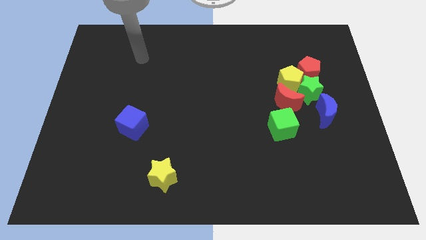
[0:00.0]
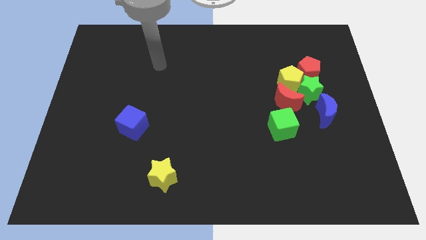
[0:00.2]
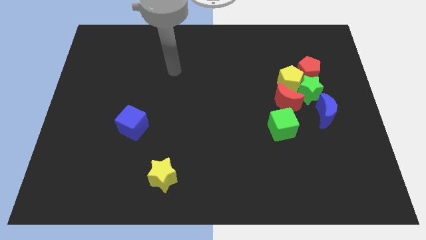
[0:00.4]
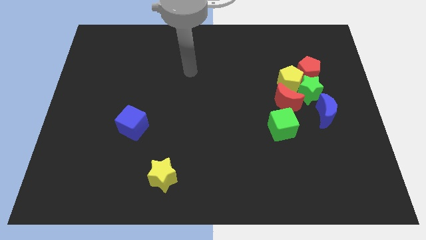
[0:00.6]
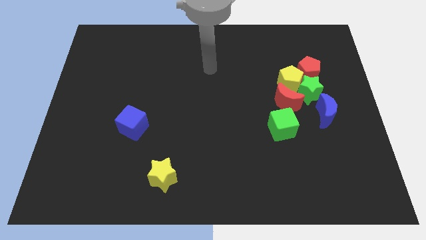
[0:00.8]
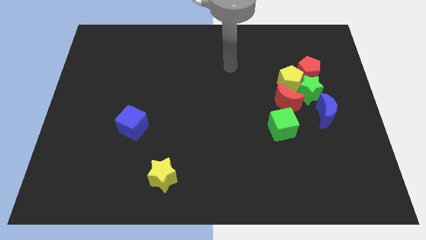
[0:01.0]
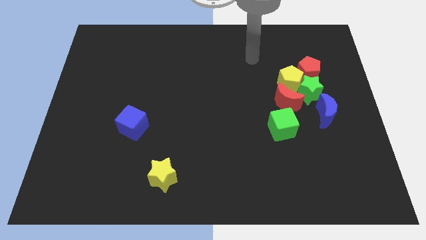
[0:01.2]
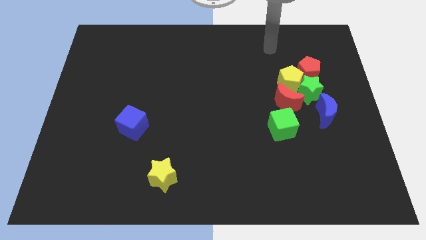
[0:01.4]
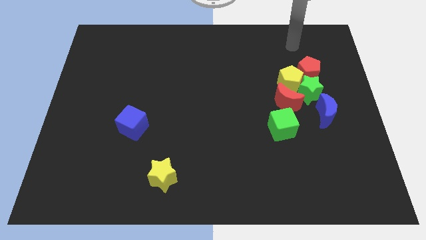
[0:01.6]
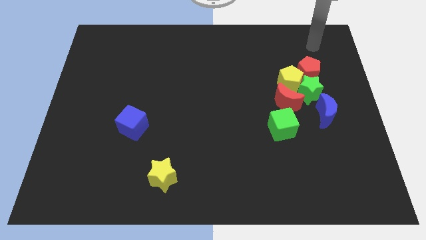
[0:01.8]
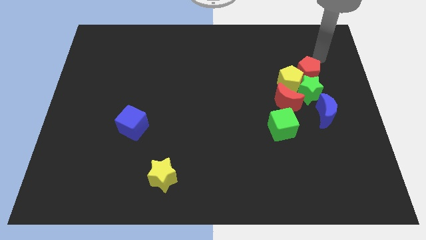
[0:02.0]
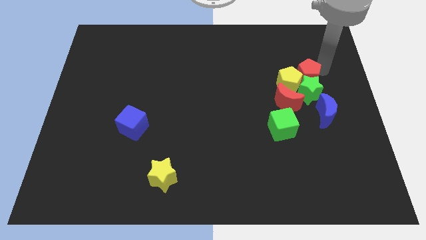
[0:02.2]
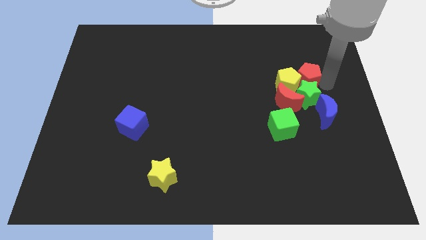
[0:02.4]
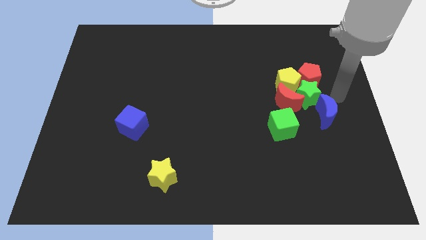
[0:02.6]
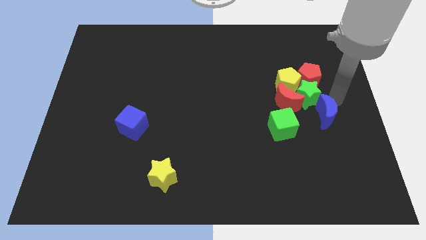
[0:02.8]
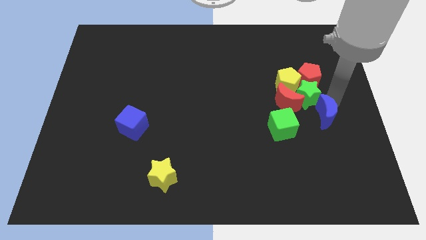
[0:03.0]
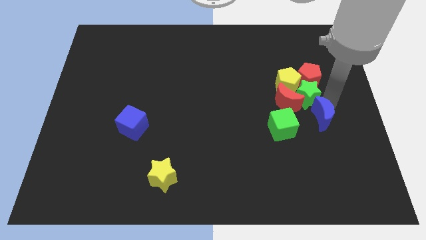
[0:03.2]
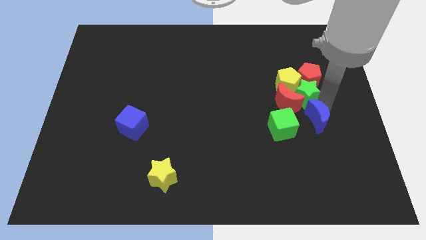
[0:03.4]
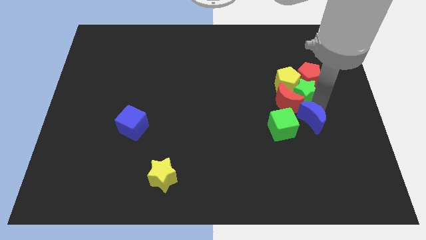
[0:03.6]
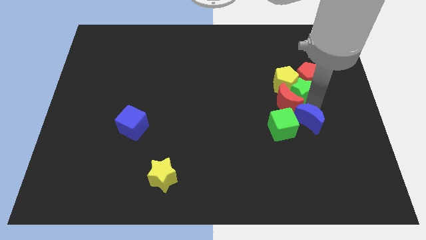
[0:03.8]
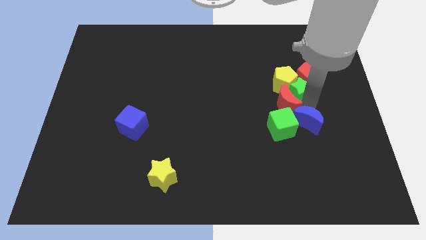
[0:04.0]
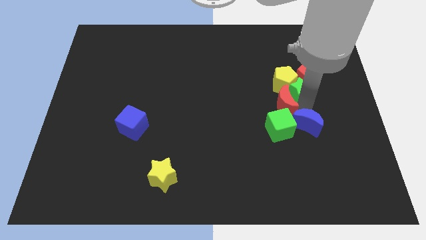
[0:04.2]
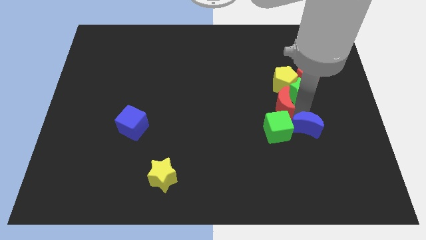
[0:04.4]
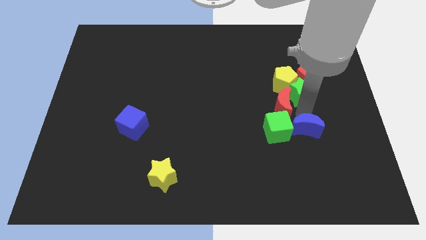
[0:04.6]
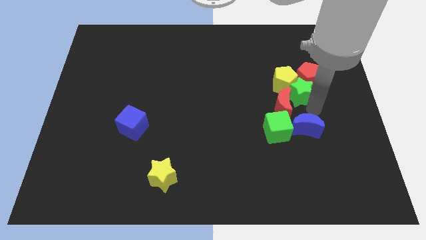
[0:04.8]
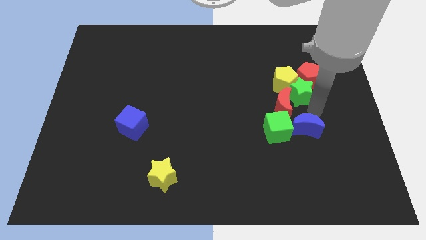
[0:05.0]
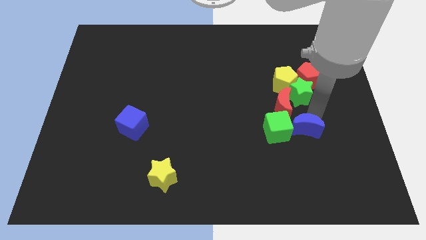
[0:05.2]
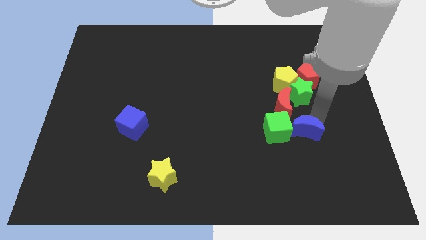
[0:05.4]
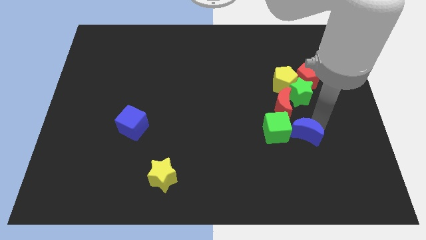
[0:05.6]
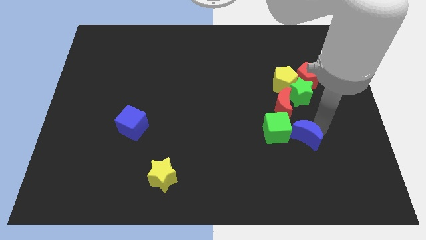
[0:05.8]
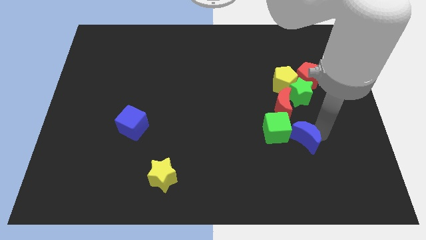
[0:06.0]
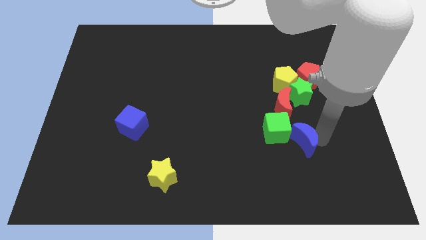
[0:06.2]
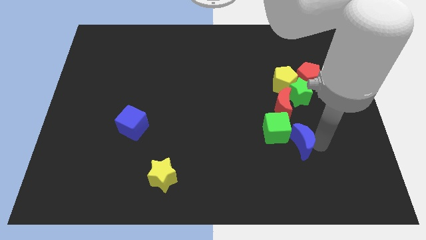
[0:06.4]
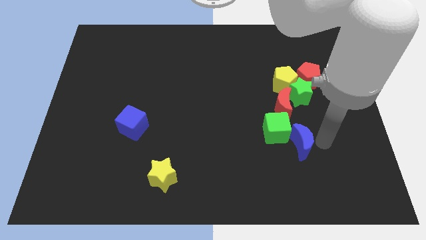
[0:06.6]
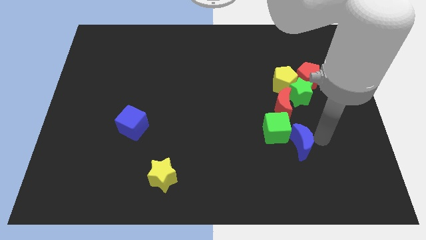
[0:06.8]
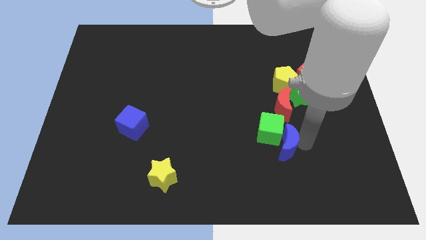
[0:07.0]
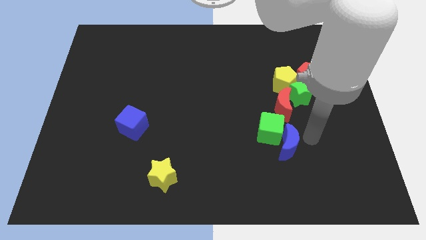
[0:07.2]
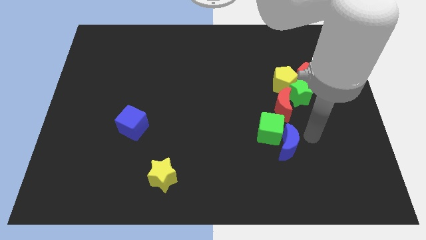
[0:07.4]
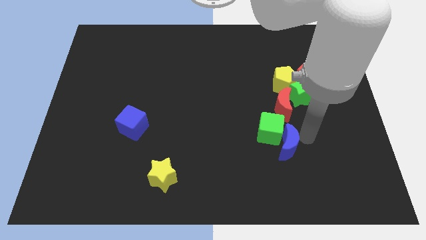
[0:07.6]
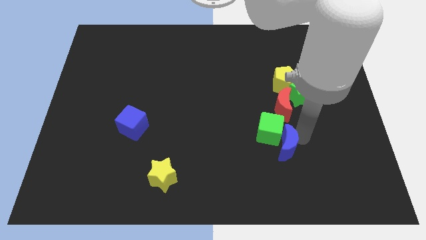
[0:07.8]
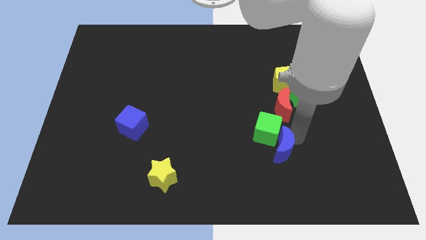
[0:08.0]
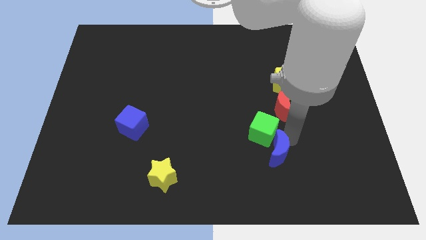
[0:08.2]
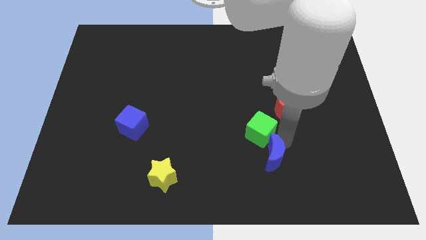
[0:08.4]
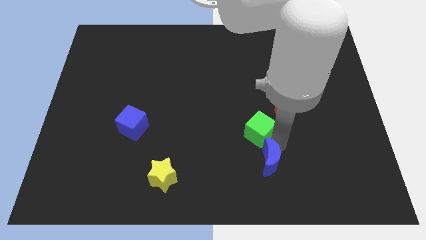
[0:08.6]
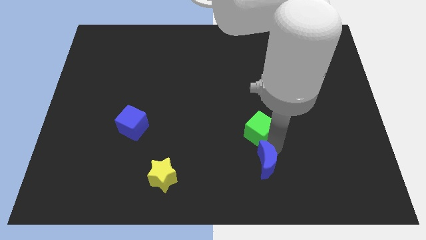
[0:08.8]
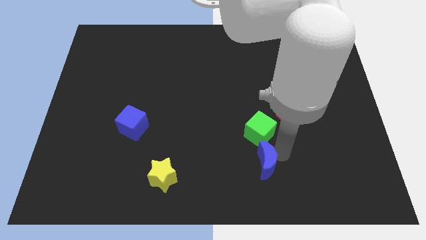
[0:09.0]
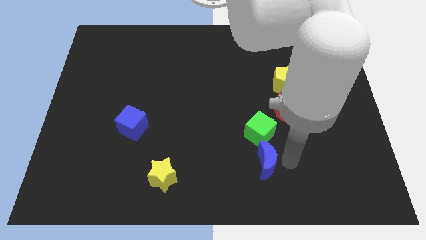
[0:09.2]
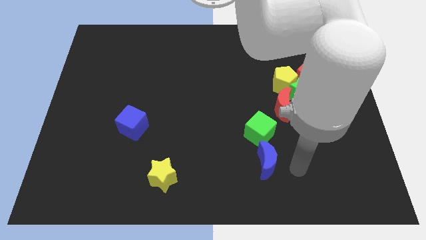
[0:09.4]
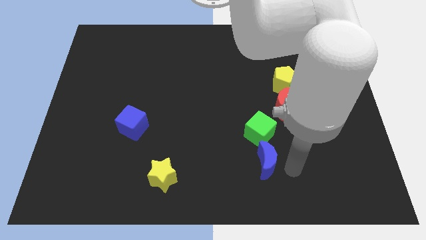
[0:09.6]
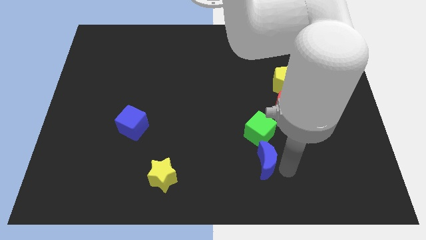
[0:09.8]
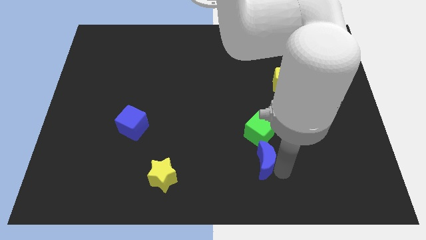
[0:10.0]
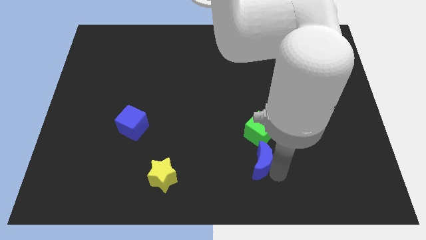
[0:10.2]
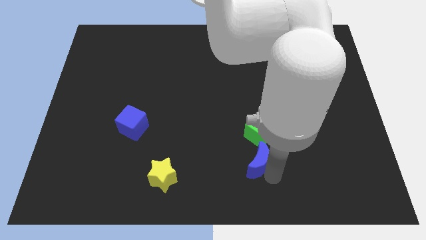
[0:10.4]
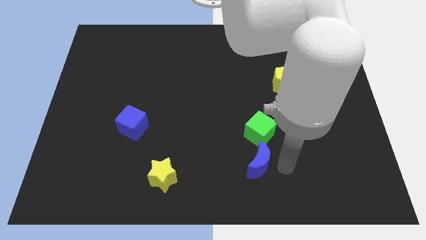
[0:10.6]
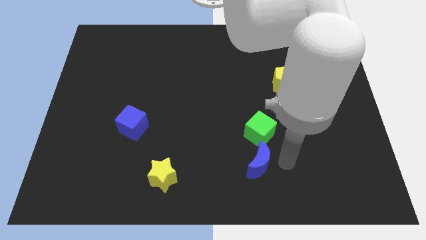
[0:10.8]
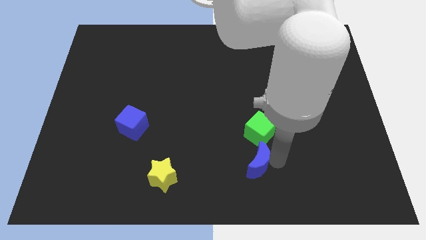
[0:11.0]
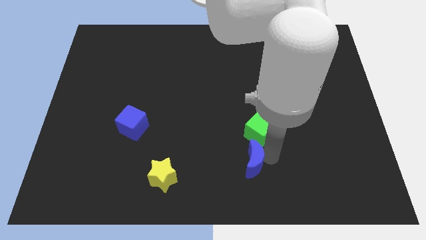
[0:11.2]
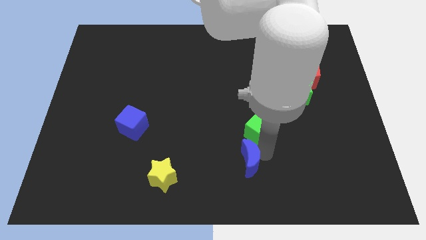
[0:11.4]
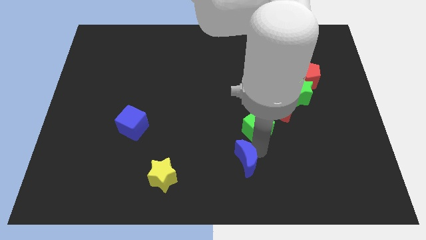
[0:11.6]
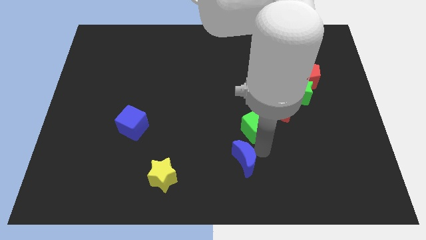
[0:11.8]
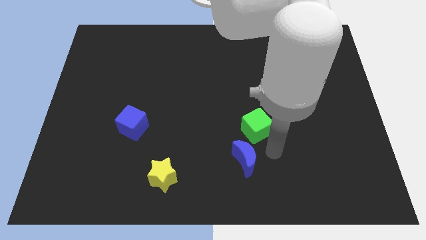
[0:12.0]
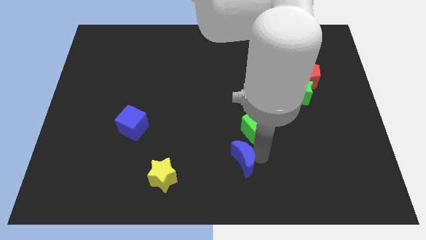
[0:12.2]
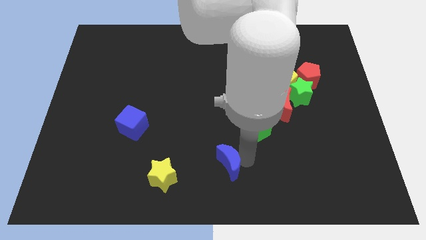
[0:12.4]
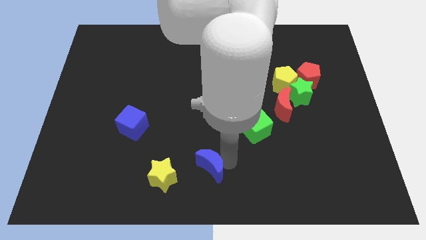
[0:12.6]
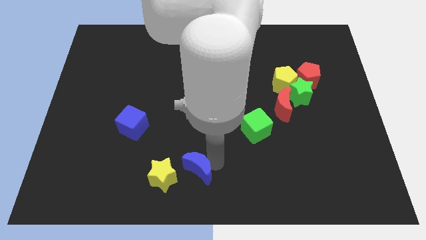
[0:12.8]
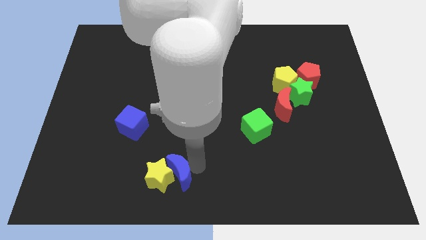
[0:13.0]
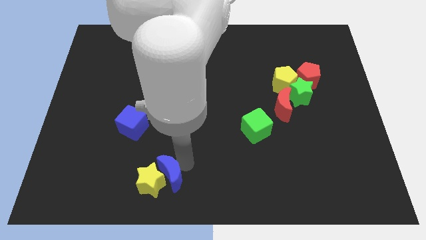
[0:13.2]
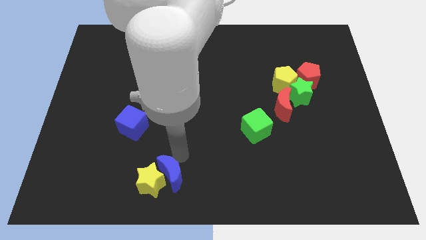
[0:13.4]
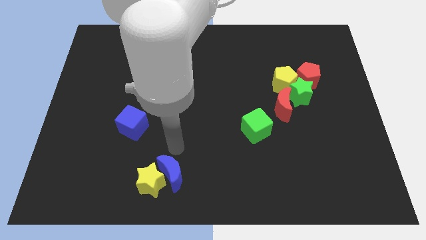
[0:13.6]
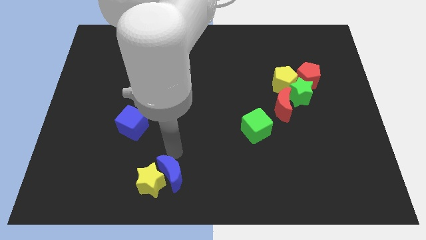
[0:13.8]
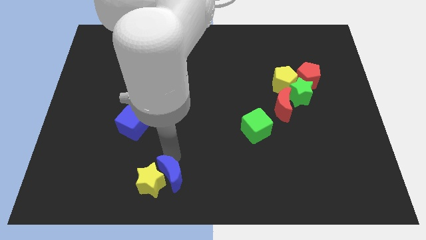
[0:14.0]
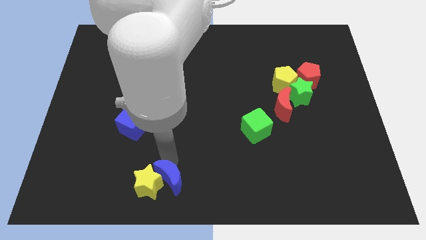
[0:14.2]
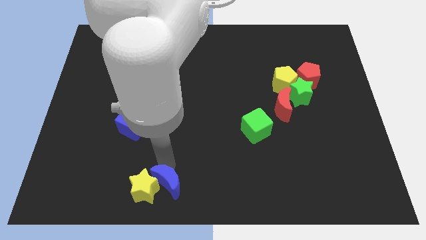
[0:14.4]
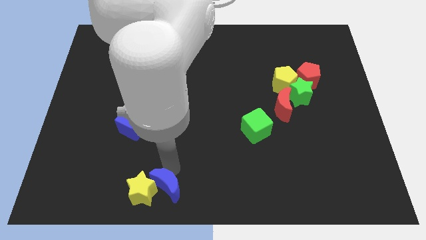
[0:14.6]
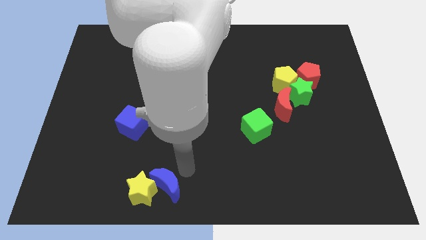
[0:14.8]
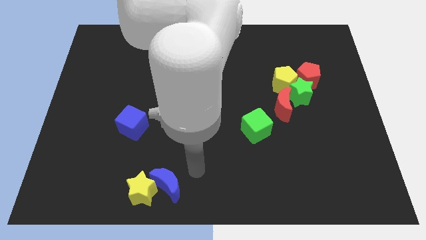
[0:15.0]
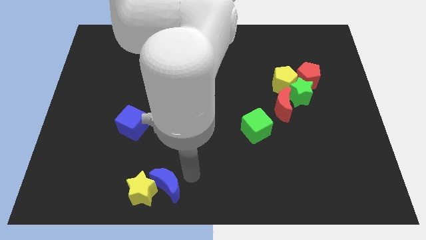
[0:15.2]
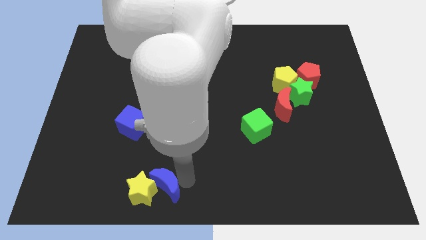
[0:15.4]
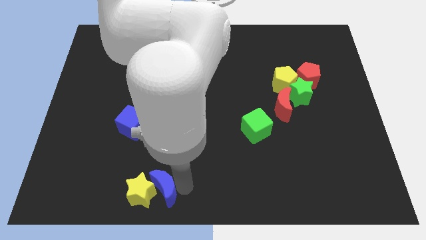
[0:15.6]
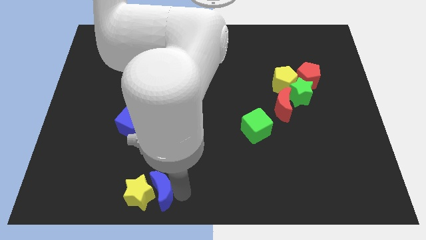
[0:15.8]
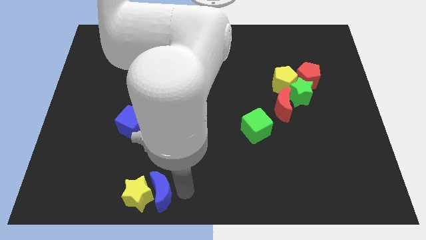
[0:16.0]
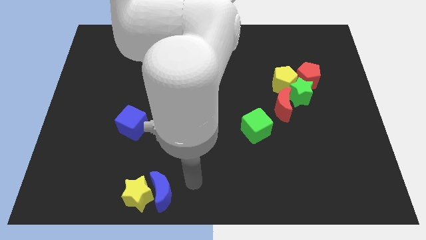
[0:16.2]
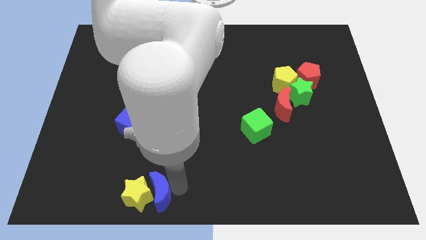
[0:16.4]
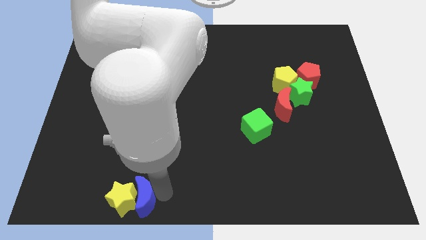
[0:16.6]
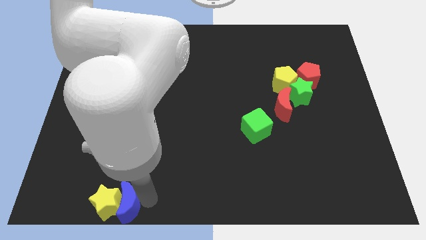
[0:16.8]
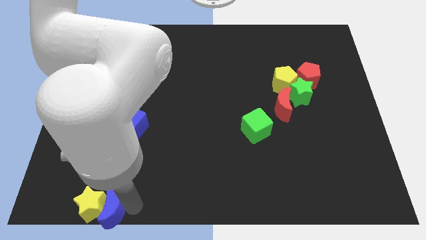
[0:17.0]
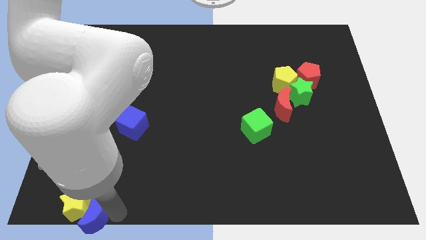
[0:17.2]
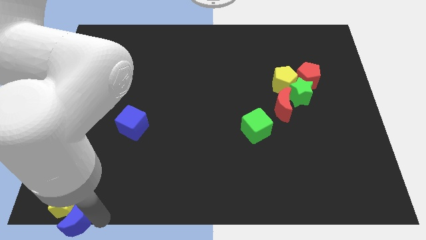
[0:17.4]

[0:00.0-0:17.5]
slide the blue moon to the bottom left of the board
